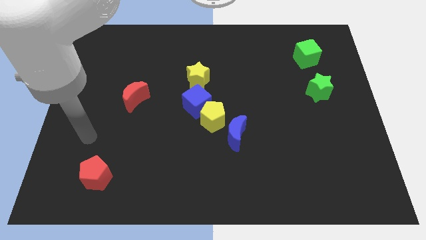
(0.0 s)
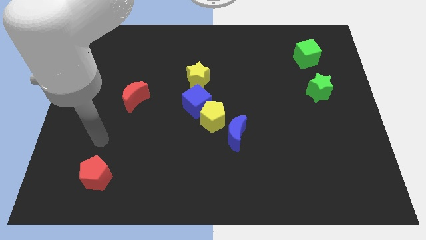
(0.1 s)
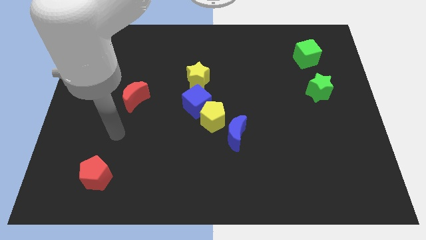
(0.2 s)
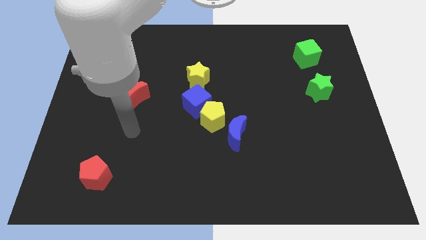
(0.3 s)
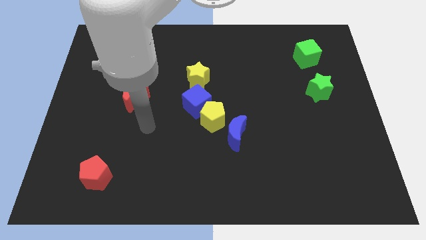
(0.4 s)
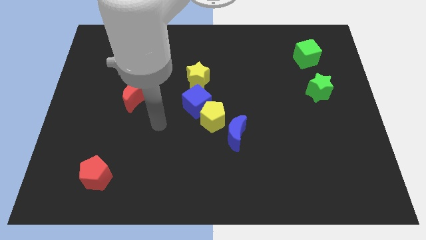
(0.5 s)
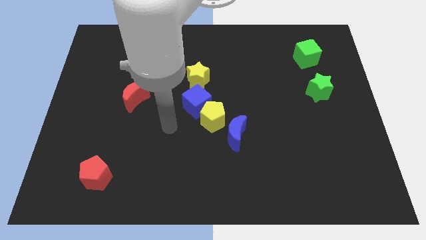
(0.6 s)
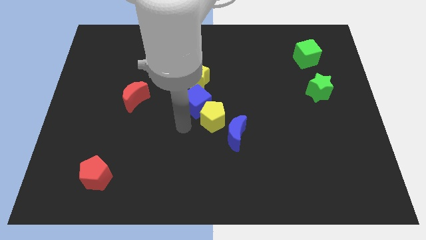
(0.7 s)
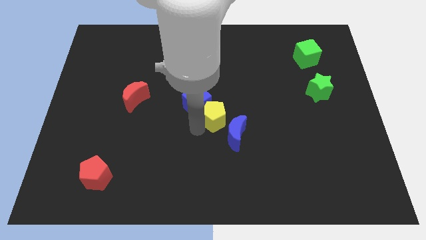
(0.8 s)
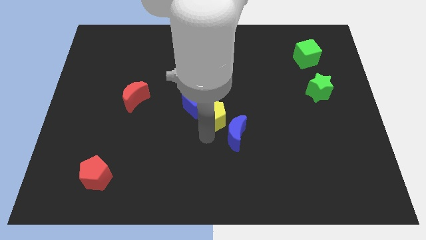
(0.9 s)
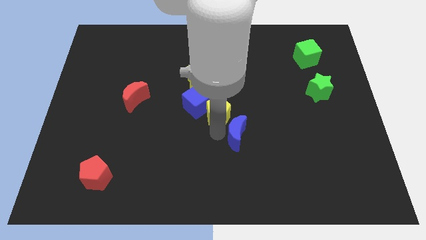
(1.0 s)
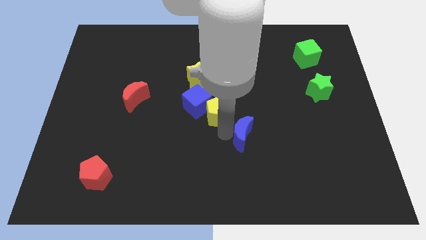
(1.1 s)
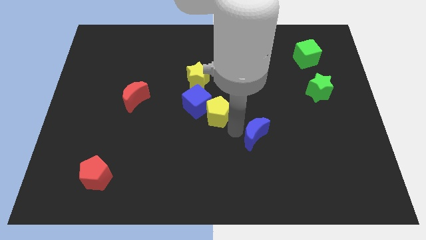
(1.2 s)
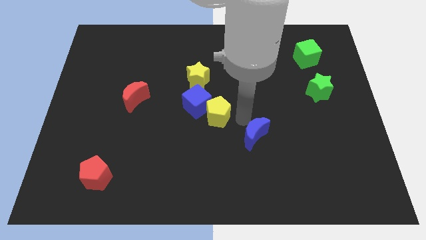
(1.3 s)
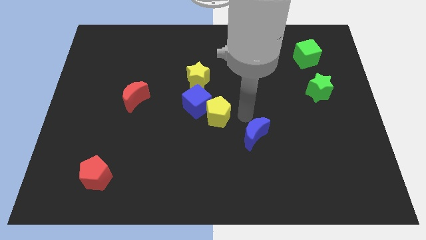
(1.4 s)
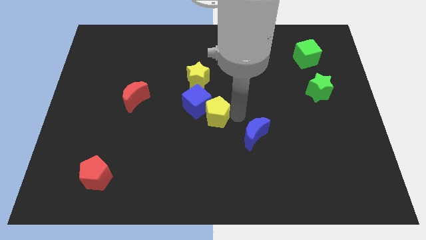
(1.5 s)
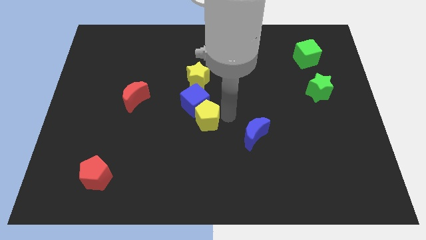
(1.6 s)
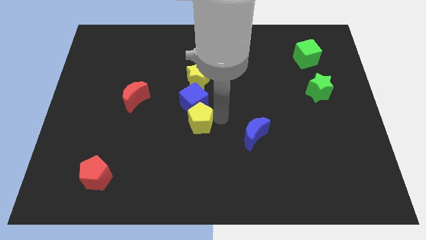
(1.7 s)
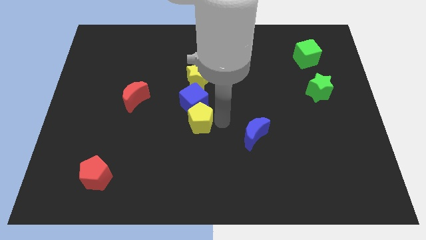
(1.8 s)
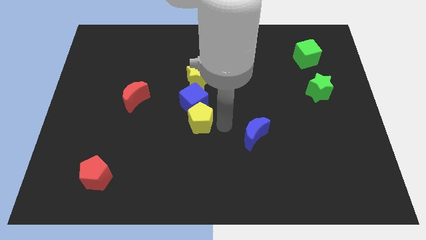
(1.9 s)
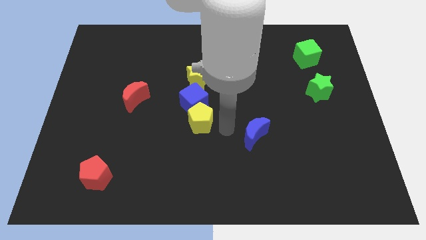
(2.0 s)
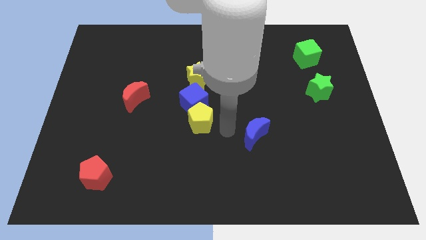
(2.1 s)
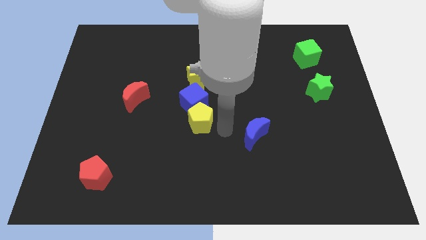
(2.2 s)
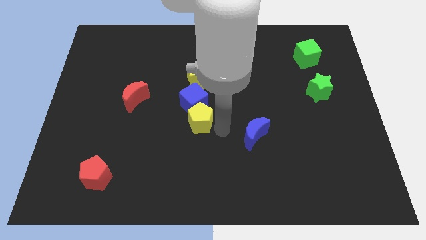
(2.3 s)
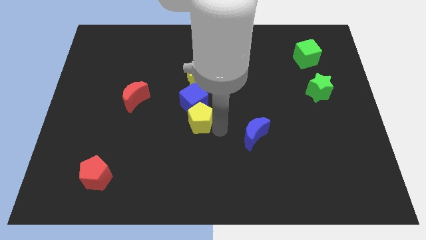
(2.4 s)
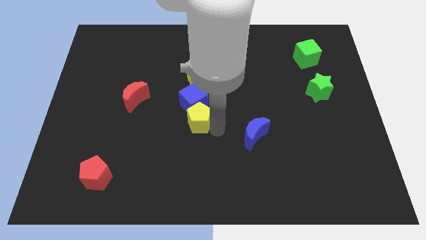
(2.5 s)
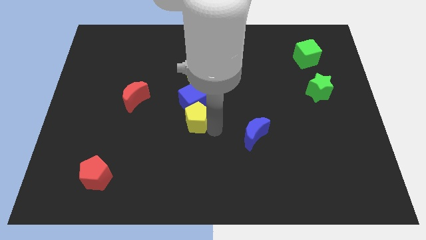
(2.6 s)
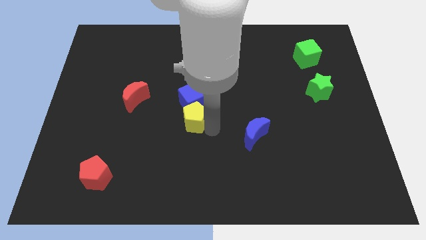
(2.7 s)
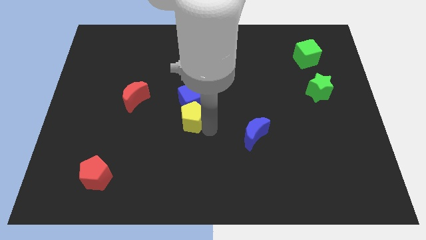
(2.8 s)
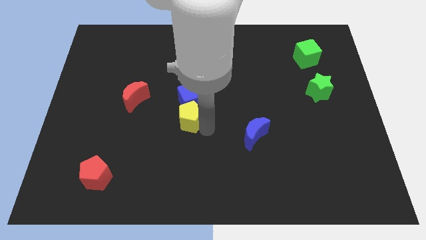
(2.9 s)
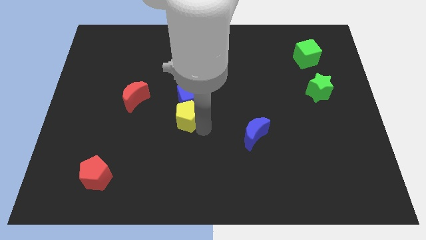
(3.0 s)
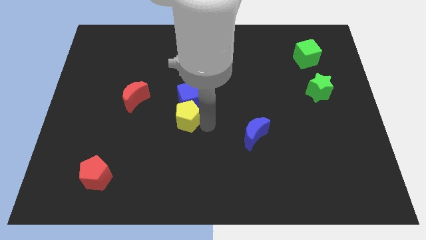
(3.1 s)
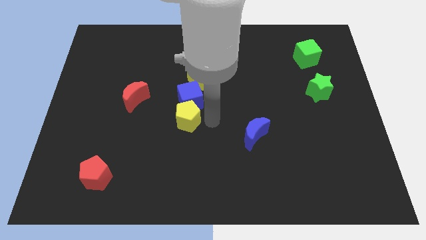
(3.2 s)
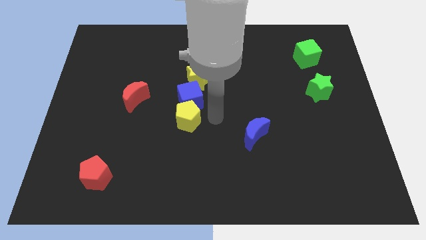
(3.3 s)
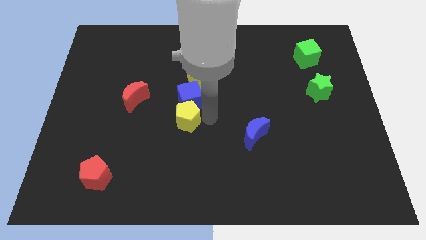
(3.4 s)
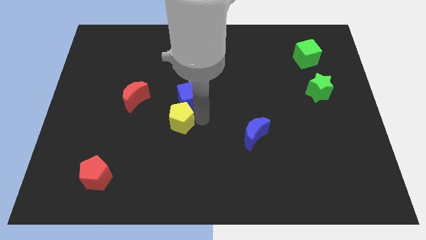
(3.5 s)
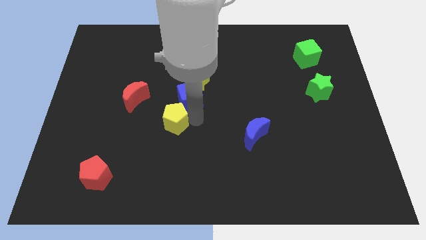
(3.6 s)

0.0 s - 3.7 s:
separate the yellow pentagon from the blue cube and blue moon

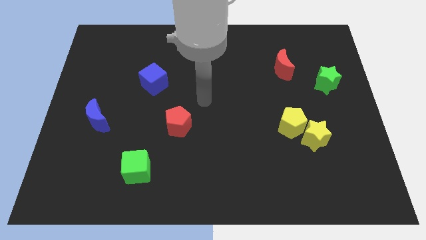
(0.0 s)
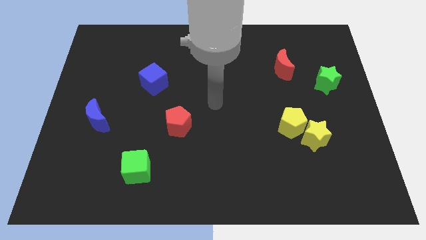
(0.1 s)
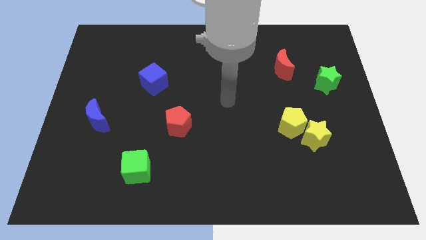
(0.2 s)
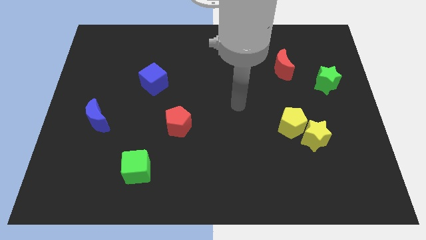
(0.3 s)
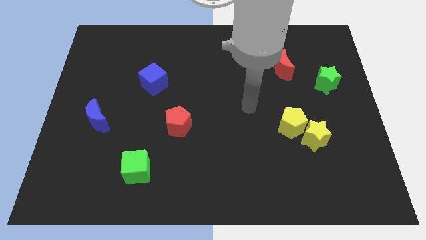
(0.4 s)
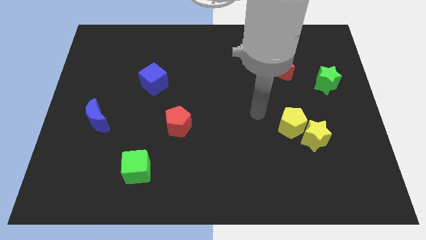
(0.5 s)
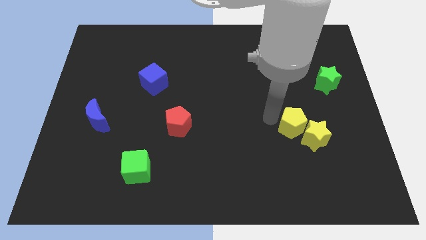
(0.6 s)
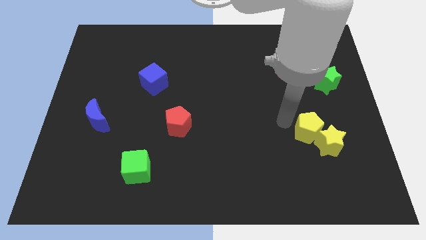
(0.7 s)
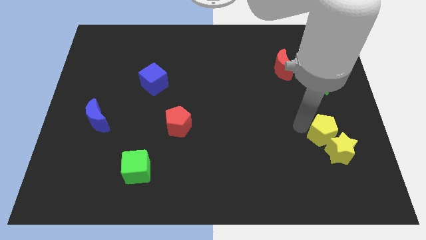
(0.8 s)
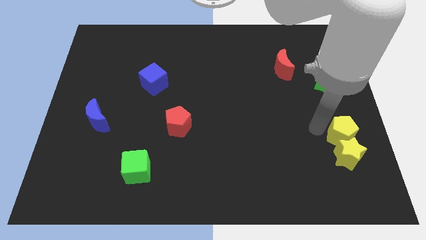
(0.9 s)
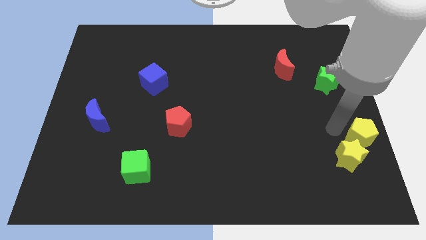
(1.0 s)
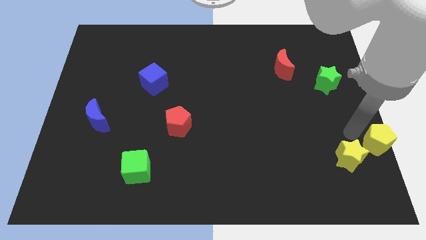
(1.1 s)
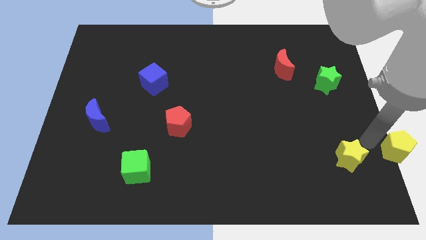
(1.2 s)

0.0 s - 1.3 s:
separate the yellow star from the yellow pentagon

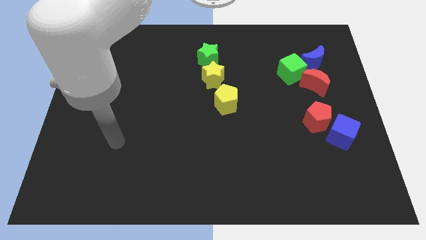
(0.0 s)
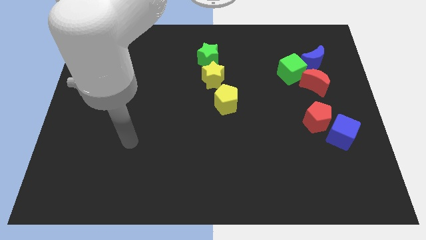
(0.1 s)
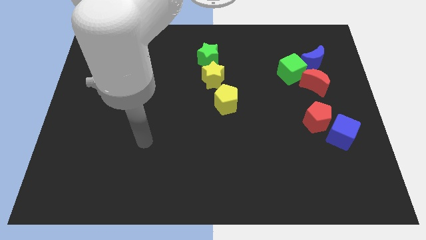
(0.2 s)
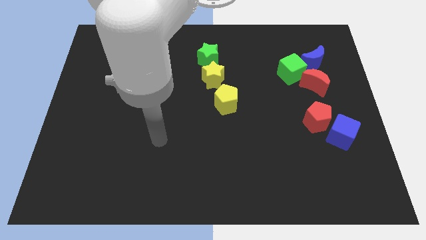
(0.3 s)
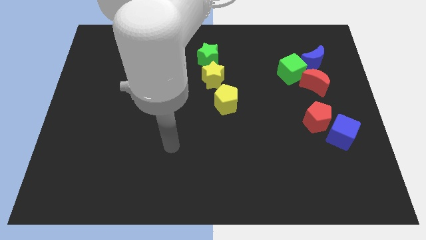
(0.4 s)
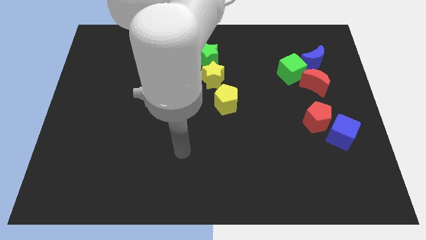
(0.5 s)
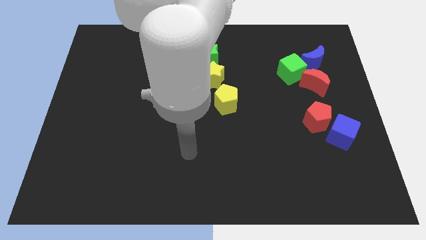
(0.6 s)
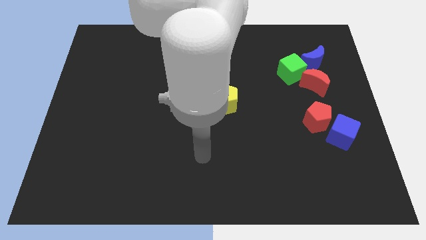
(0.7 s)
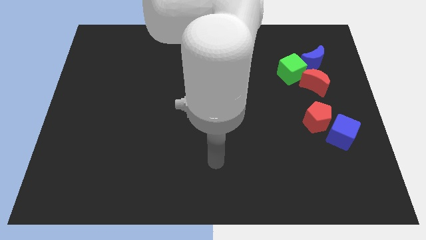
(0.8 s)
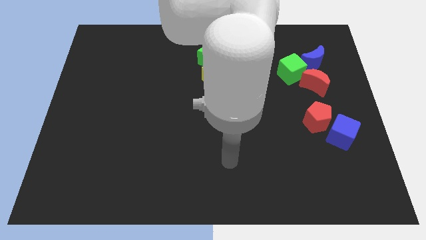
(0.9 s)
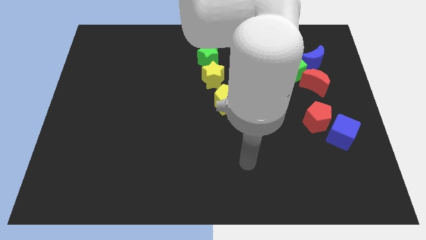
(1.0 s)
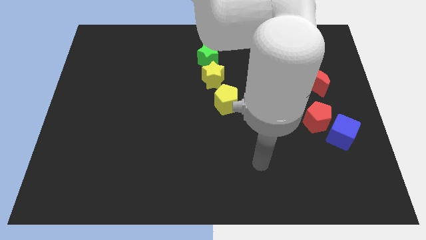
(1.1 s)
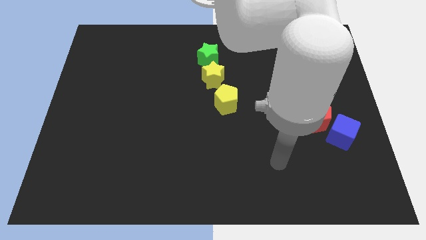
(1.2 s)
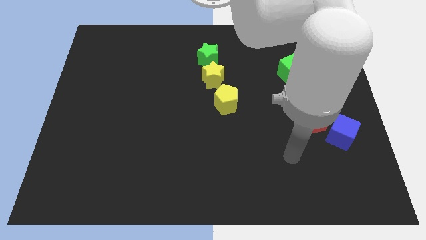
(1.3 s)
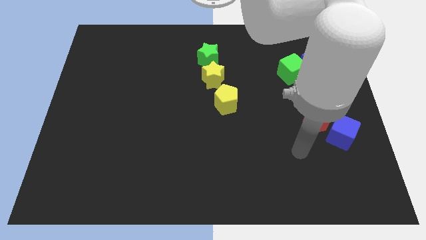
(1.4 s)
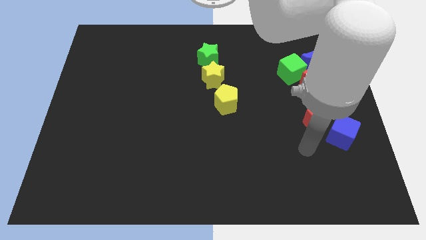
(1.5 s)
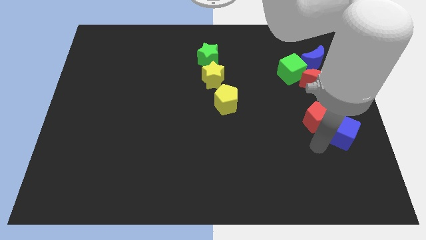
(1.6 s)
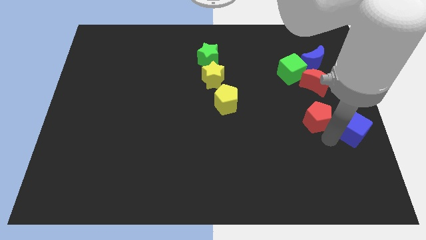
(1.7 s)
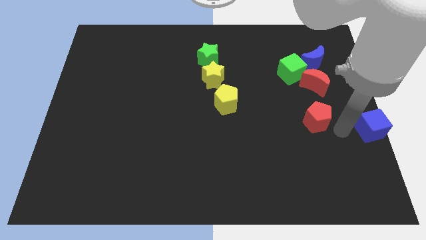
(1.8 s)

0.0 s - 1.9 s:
pull the red pentagon apart from the blue cube

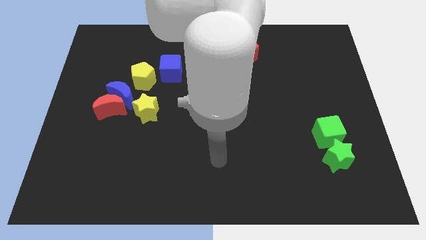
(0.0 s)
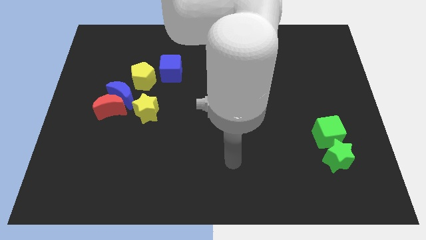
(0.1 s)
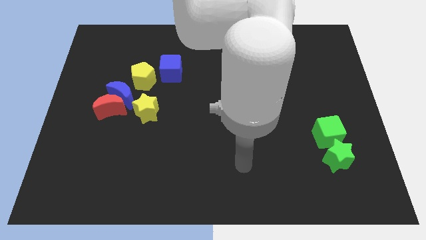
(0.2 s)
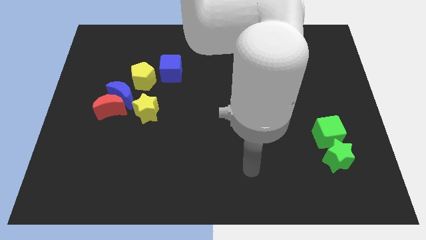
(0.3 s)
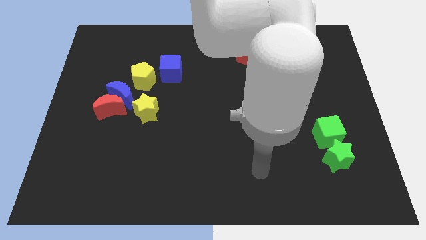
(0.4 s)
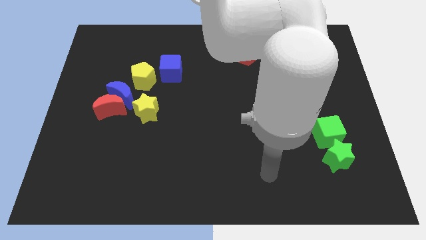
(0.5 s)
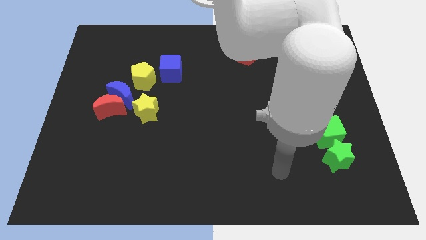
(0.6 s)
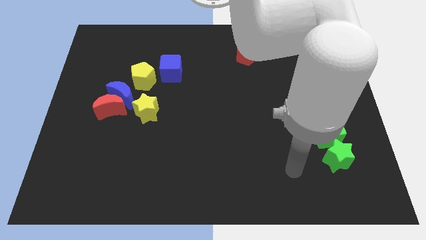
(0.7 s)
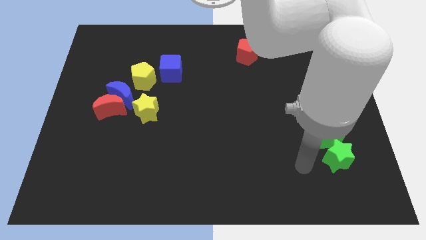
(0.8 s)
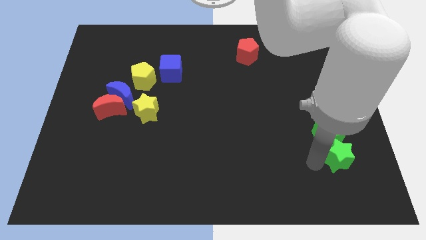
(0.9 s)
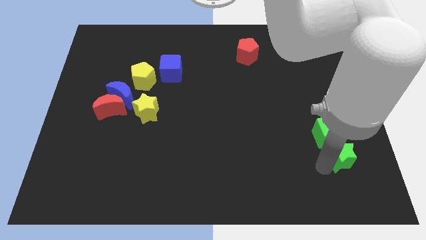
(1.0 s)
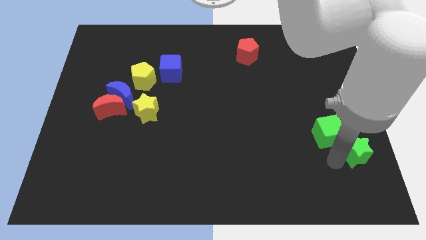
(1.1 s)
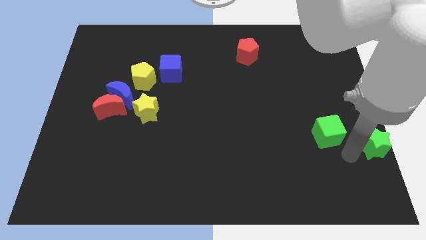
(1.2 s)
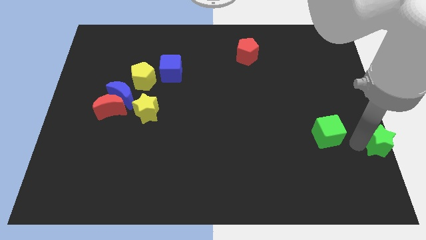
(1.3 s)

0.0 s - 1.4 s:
pull the green cube apart from the green star

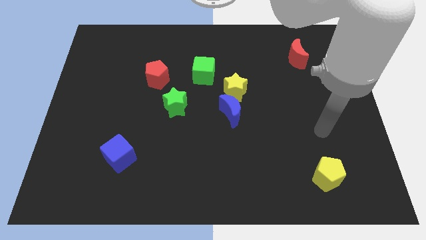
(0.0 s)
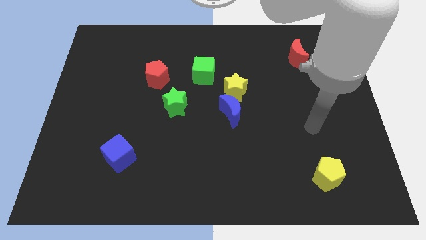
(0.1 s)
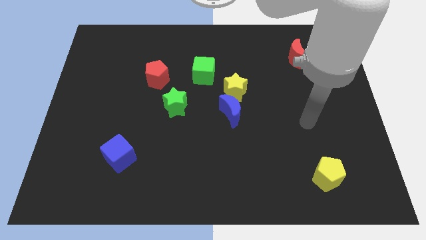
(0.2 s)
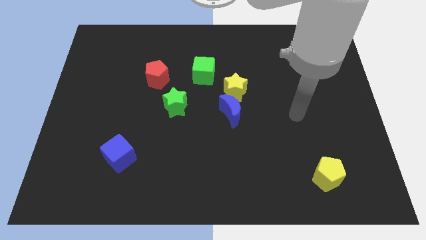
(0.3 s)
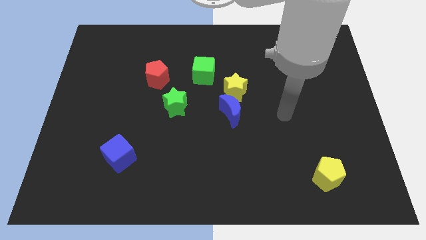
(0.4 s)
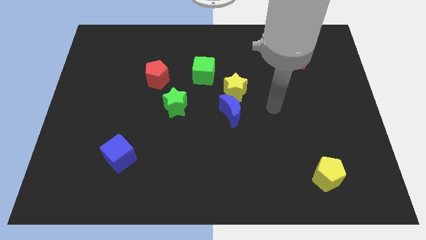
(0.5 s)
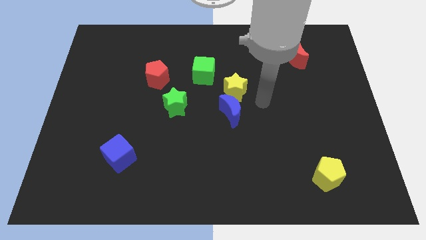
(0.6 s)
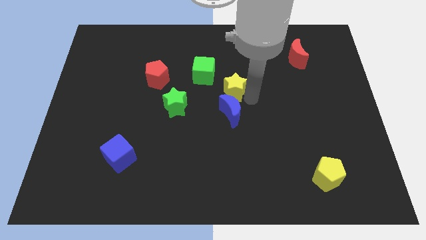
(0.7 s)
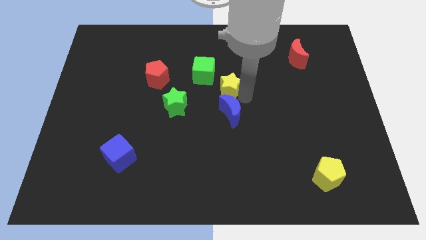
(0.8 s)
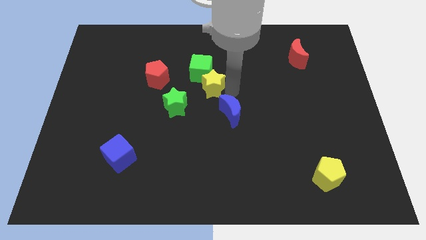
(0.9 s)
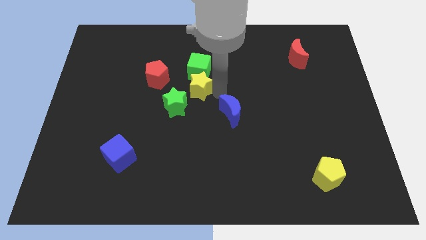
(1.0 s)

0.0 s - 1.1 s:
move the blue moon away from the yellow star
